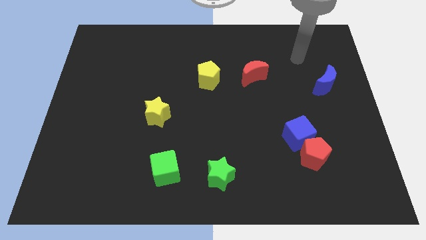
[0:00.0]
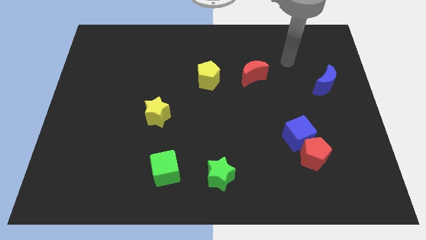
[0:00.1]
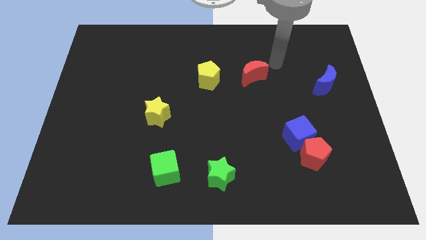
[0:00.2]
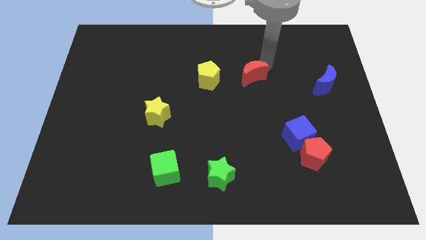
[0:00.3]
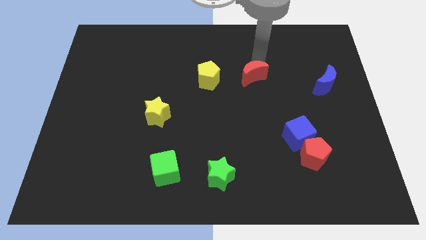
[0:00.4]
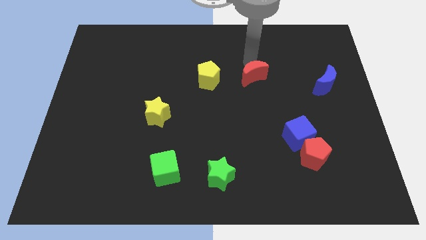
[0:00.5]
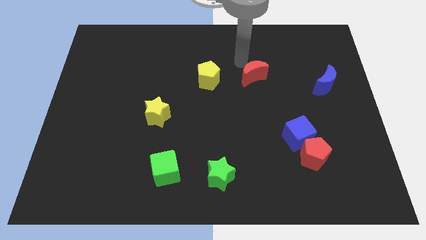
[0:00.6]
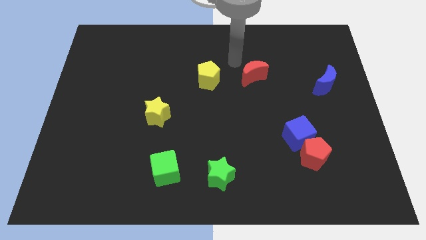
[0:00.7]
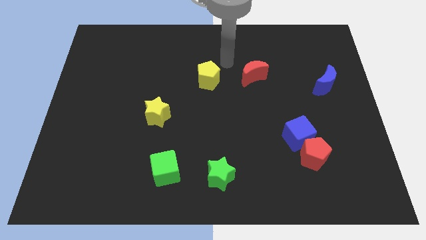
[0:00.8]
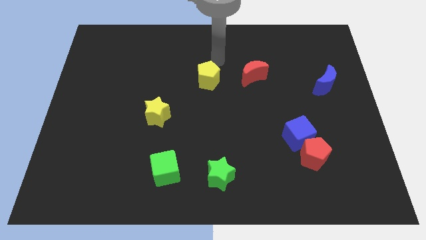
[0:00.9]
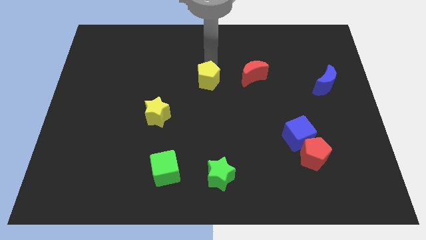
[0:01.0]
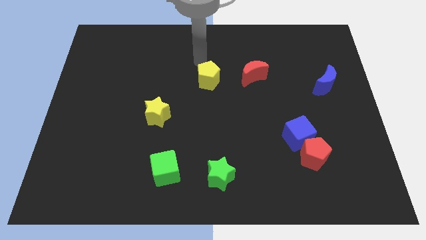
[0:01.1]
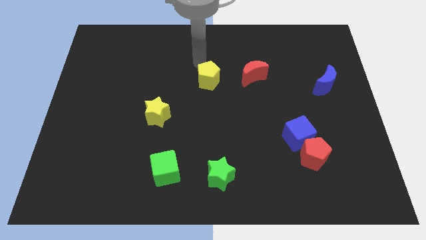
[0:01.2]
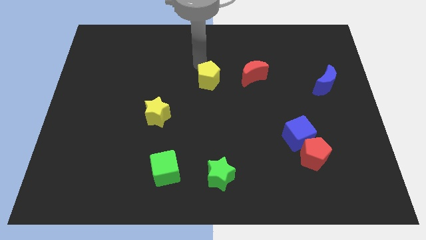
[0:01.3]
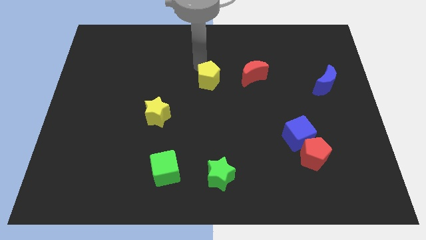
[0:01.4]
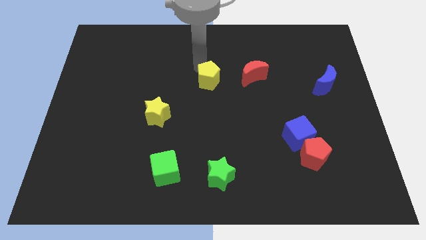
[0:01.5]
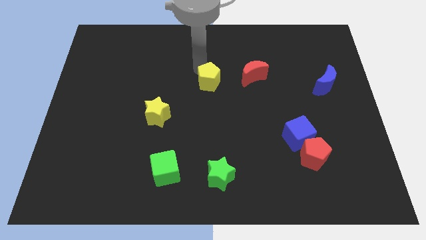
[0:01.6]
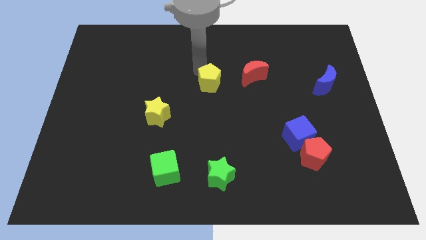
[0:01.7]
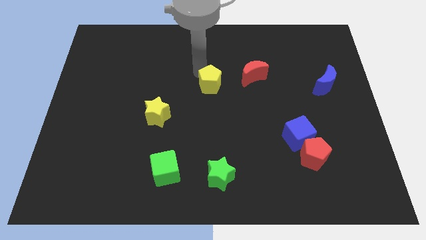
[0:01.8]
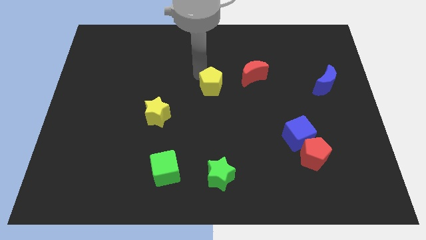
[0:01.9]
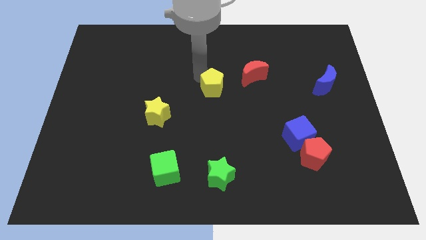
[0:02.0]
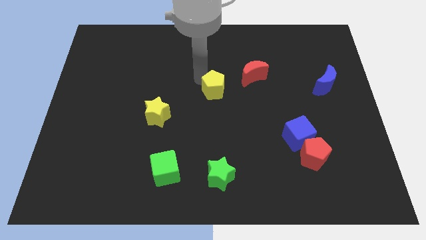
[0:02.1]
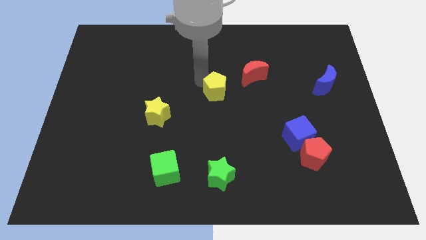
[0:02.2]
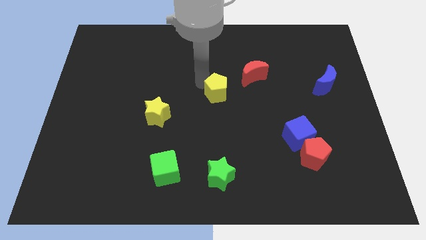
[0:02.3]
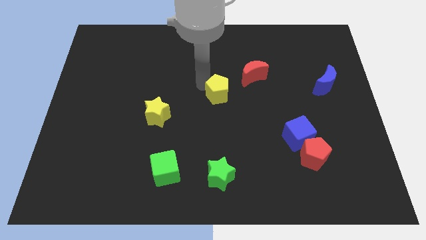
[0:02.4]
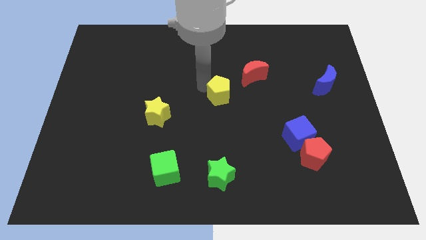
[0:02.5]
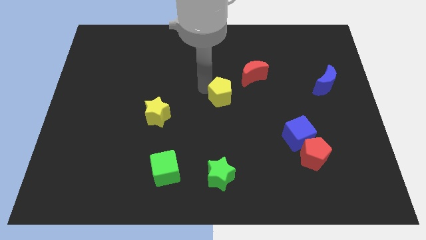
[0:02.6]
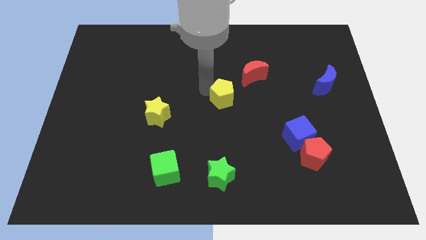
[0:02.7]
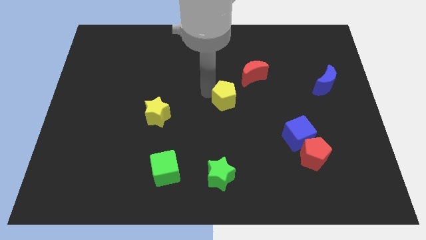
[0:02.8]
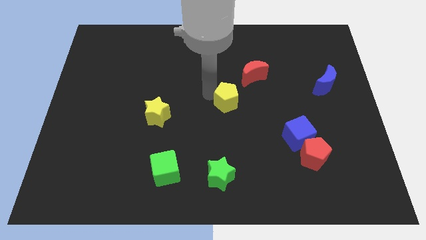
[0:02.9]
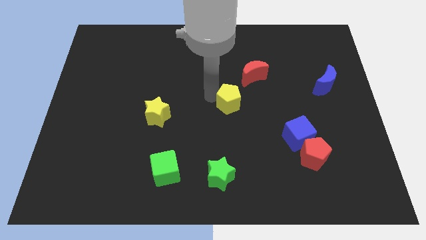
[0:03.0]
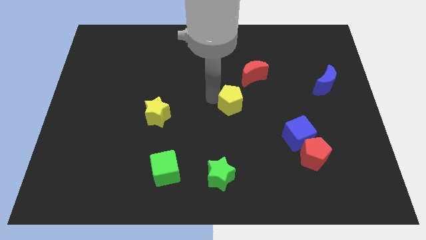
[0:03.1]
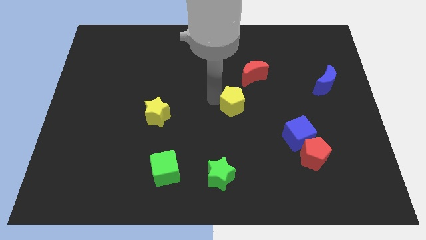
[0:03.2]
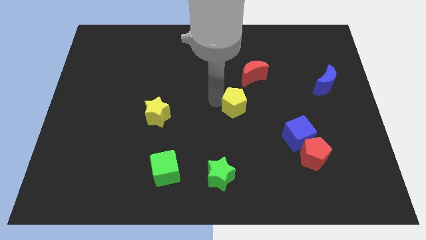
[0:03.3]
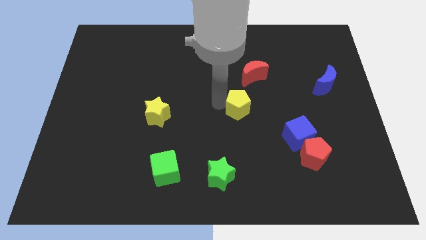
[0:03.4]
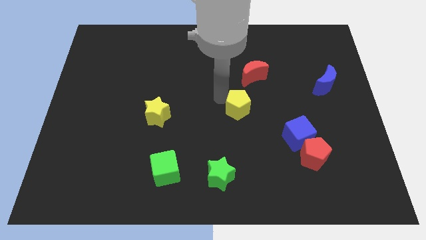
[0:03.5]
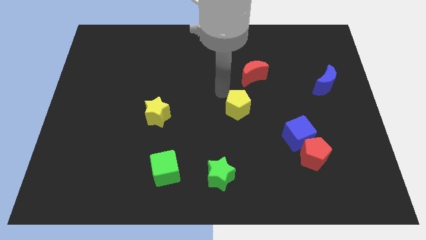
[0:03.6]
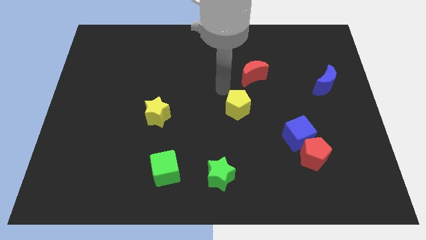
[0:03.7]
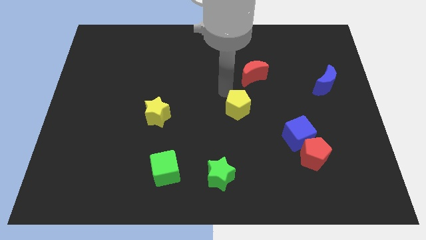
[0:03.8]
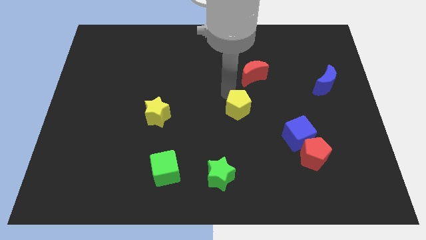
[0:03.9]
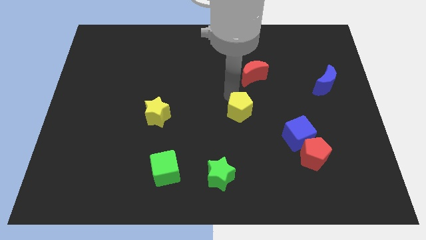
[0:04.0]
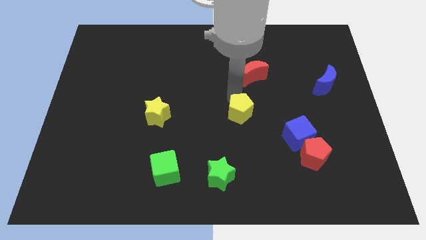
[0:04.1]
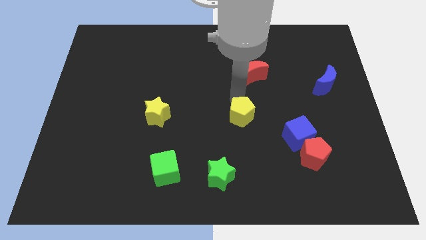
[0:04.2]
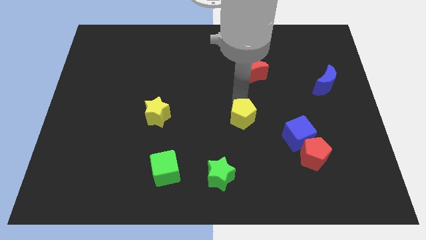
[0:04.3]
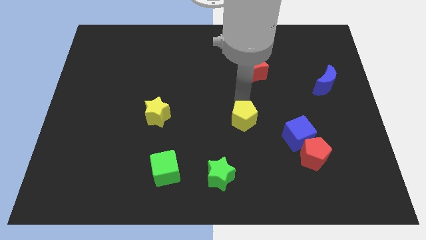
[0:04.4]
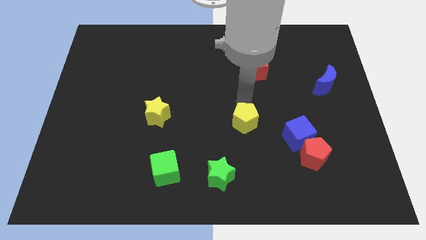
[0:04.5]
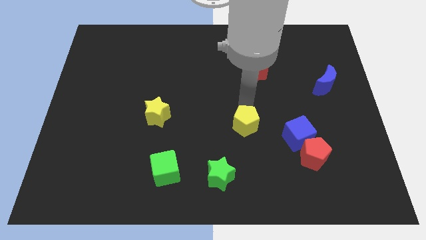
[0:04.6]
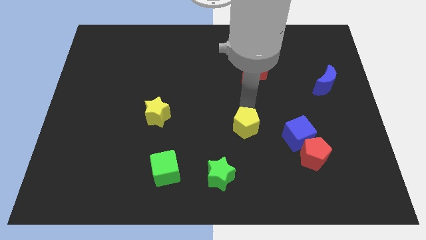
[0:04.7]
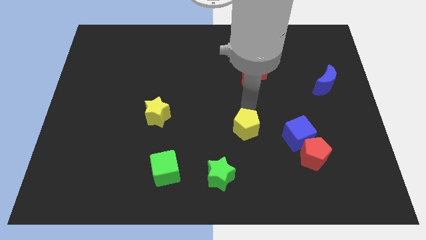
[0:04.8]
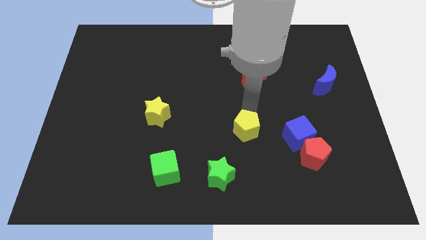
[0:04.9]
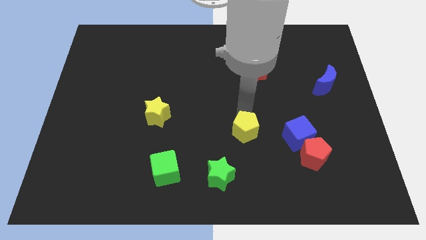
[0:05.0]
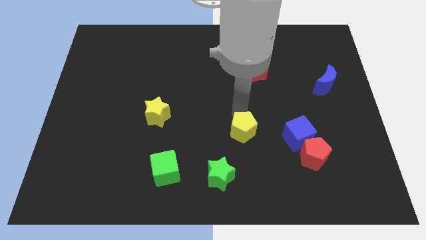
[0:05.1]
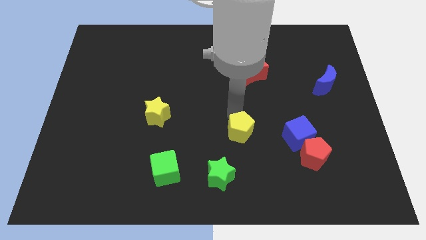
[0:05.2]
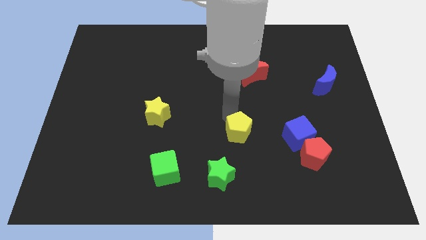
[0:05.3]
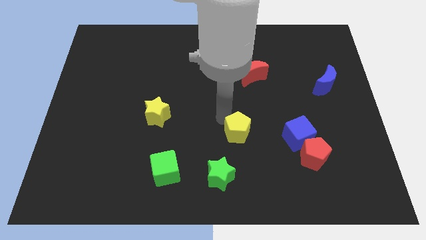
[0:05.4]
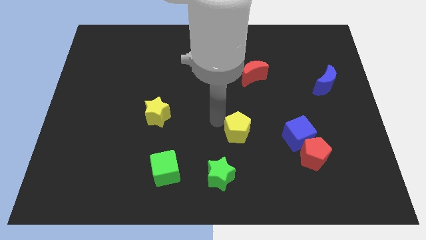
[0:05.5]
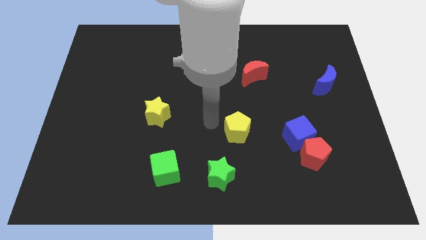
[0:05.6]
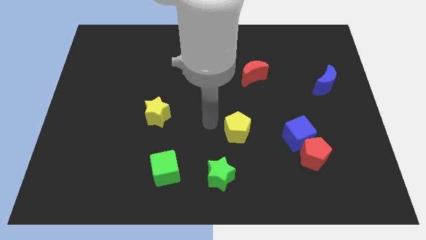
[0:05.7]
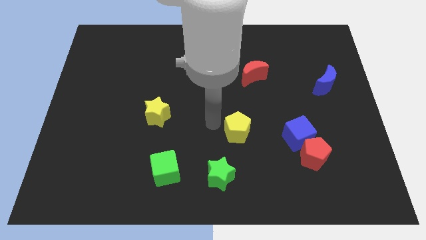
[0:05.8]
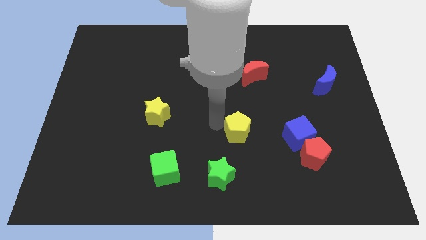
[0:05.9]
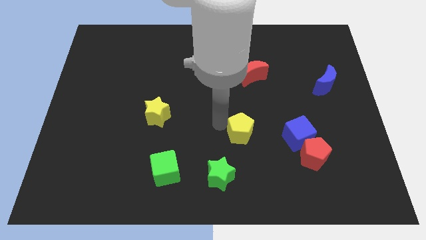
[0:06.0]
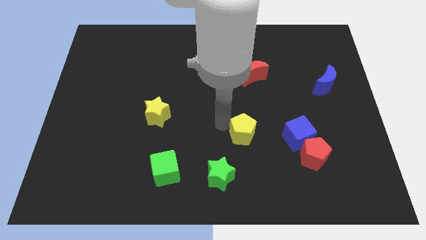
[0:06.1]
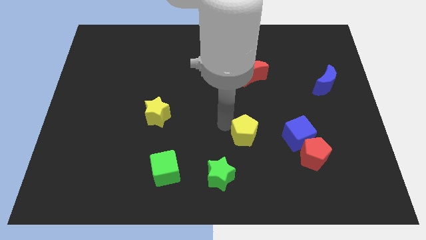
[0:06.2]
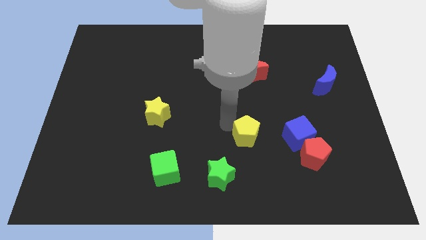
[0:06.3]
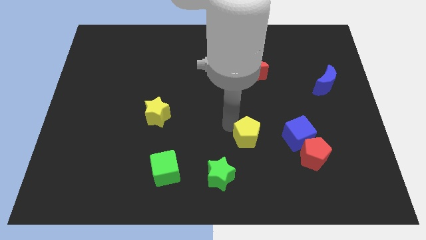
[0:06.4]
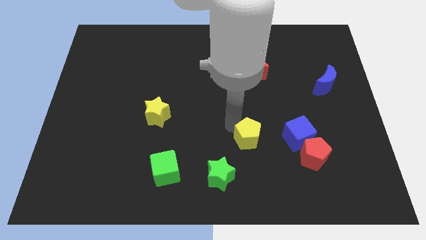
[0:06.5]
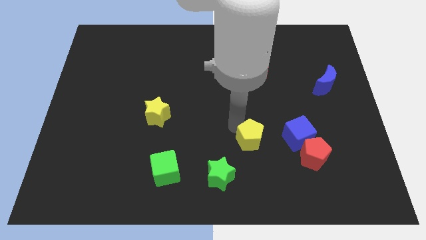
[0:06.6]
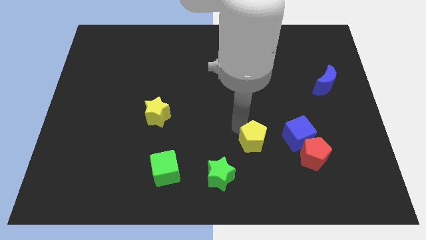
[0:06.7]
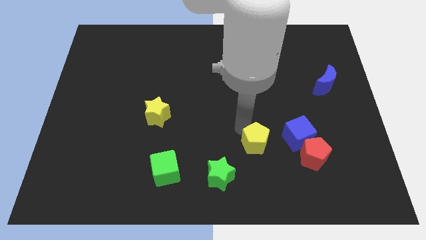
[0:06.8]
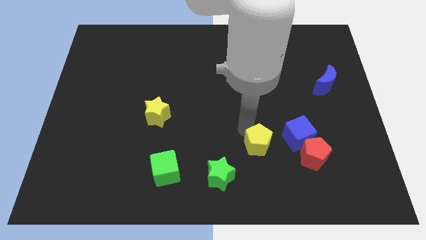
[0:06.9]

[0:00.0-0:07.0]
push the yellow pentagon to the bottom left side of the blue cube
